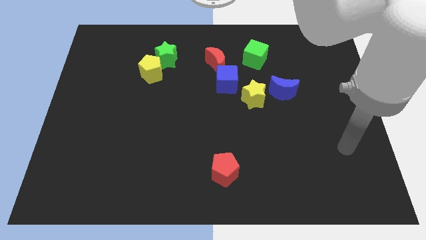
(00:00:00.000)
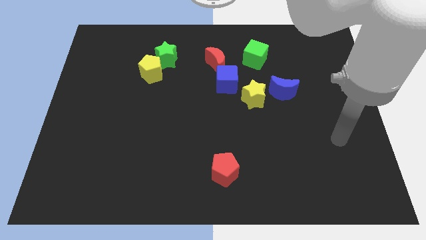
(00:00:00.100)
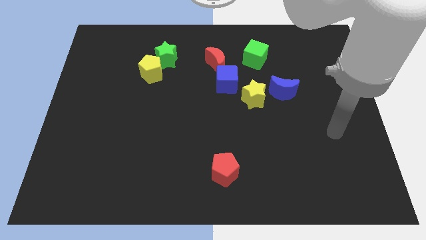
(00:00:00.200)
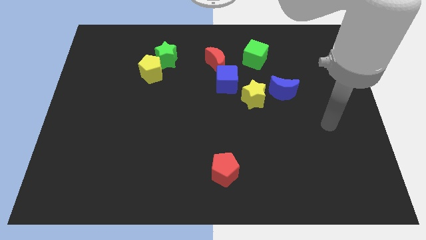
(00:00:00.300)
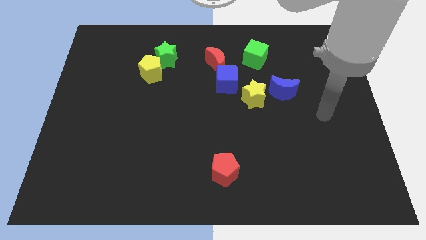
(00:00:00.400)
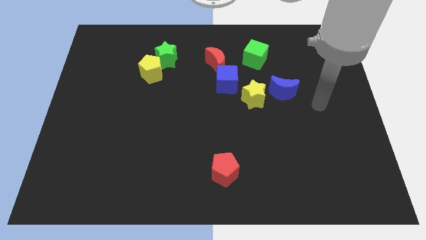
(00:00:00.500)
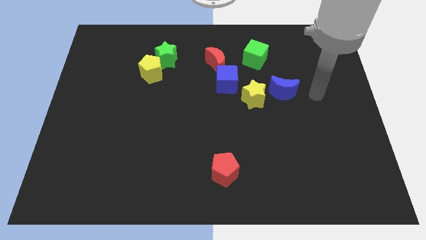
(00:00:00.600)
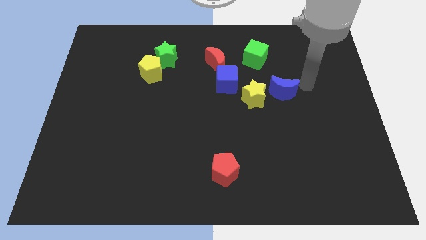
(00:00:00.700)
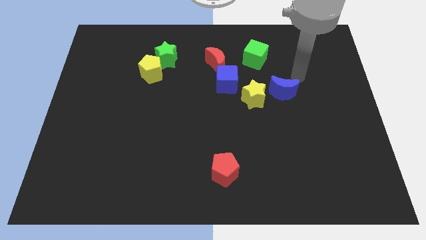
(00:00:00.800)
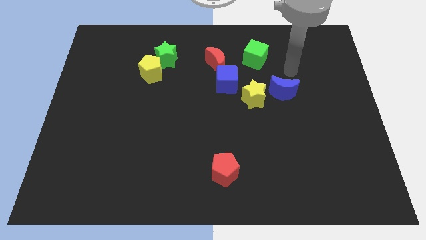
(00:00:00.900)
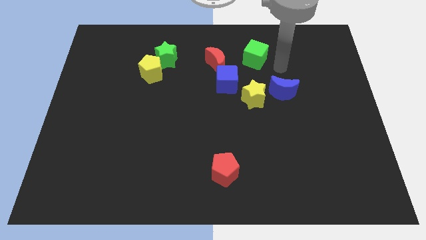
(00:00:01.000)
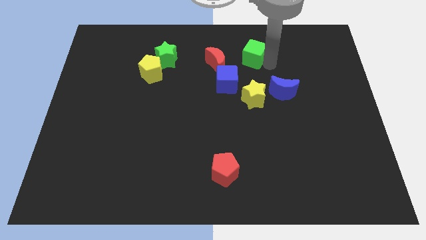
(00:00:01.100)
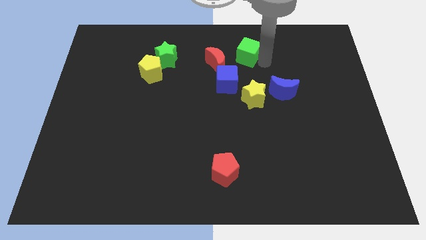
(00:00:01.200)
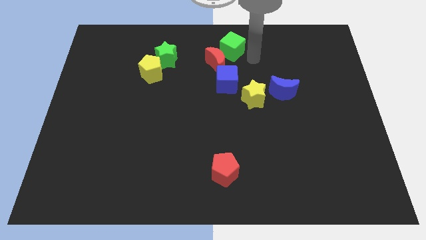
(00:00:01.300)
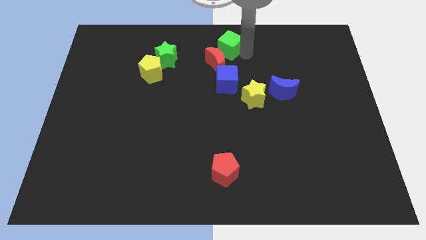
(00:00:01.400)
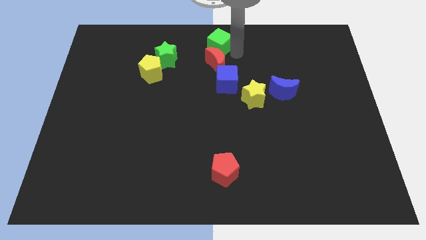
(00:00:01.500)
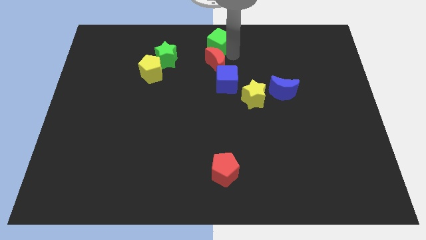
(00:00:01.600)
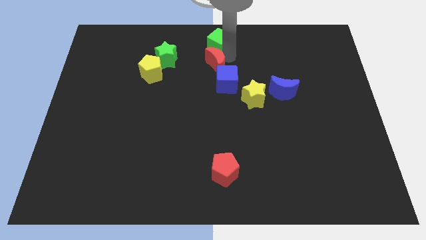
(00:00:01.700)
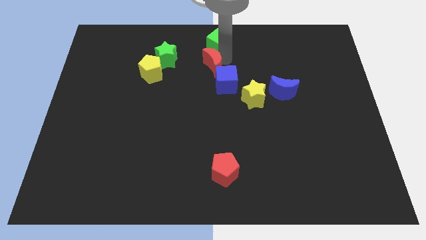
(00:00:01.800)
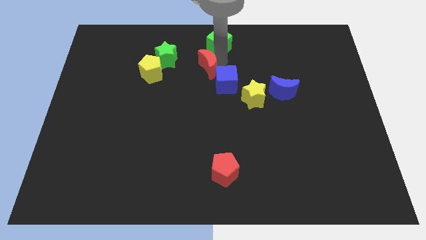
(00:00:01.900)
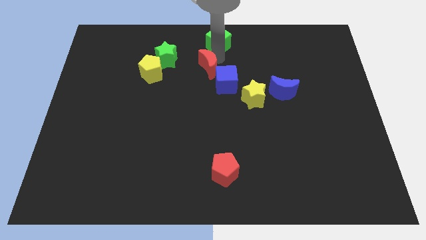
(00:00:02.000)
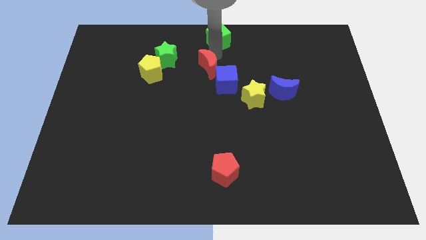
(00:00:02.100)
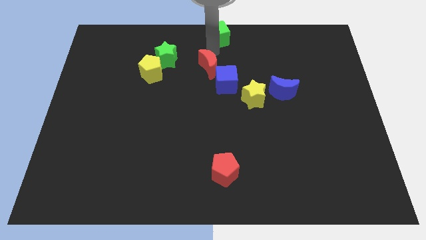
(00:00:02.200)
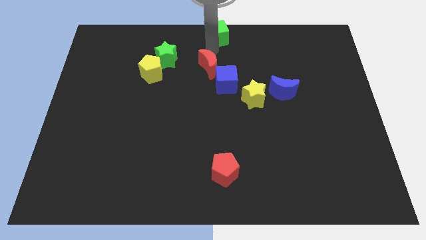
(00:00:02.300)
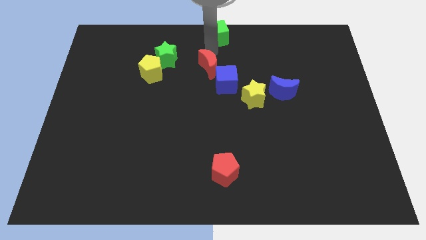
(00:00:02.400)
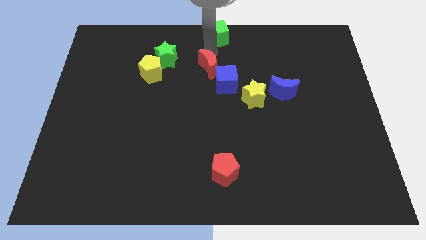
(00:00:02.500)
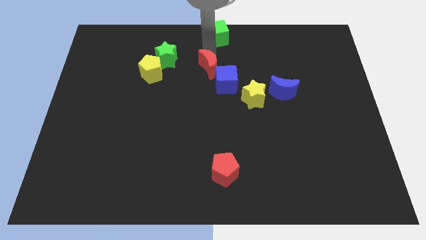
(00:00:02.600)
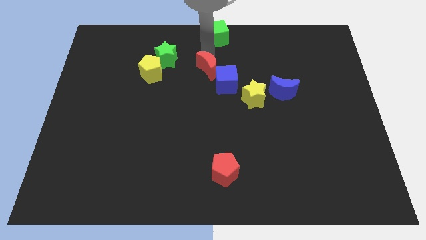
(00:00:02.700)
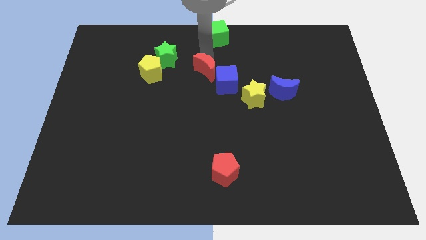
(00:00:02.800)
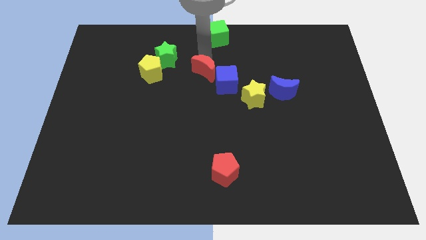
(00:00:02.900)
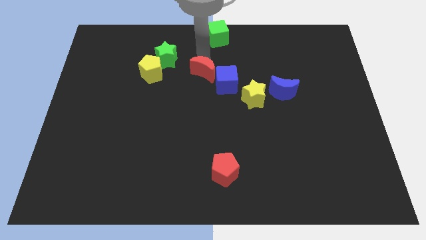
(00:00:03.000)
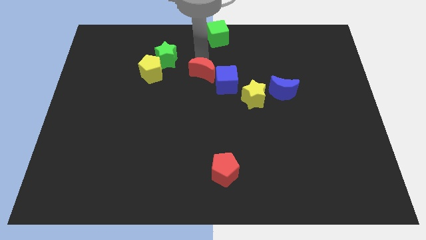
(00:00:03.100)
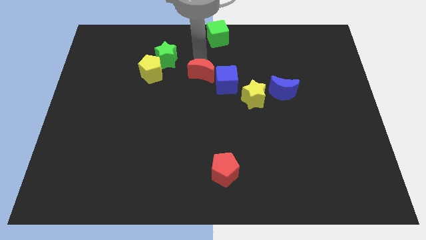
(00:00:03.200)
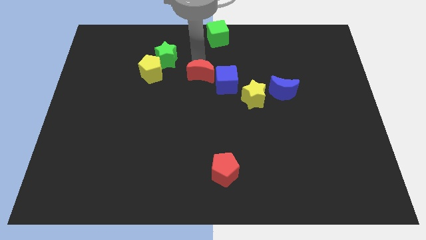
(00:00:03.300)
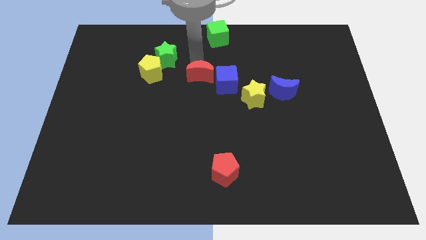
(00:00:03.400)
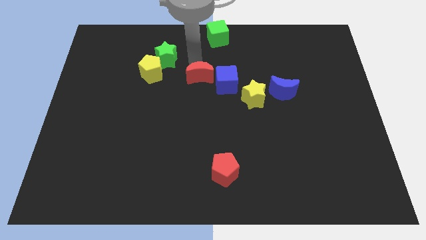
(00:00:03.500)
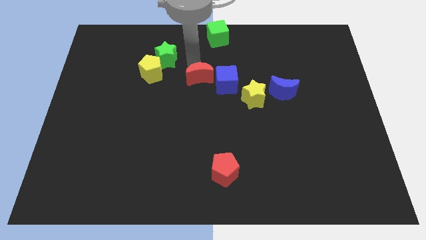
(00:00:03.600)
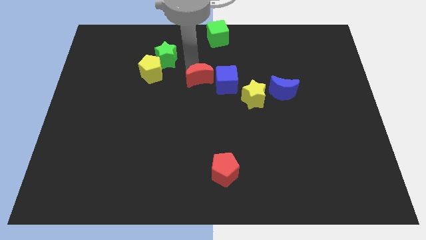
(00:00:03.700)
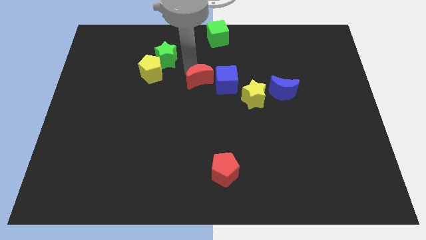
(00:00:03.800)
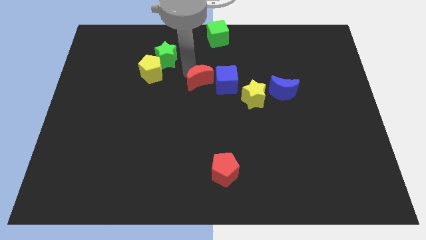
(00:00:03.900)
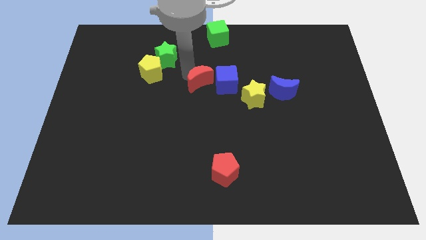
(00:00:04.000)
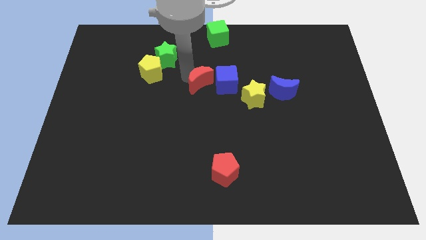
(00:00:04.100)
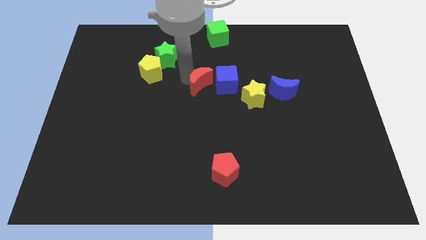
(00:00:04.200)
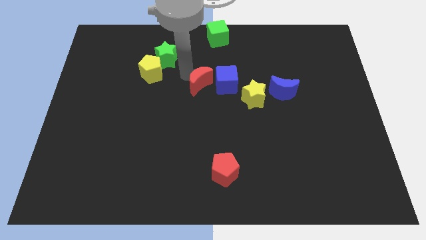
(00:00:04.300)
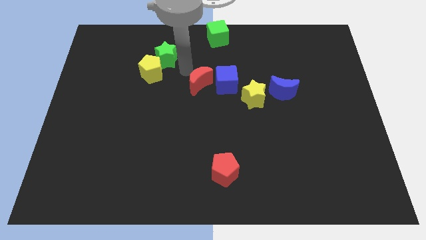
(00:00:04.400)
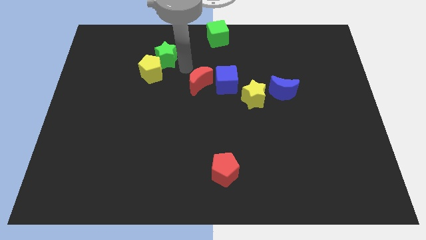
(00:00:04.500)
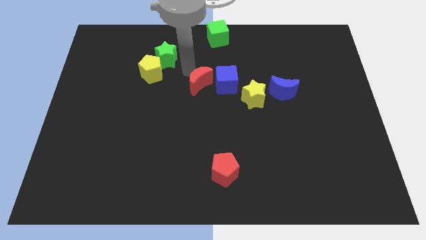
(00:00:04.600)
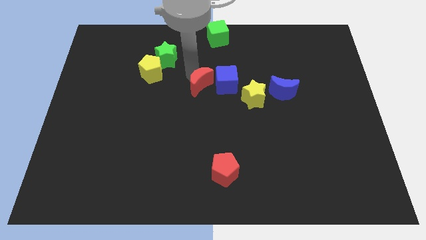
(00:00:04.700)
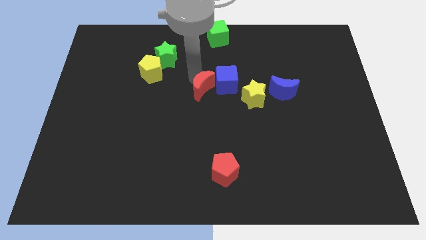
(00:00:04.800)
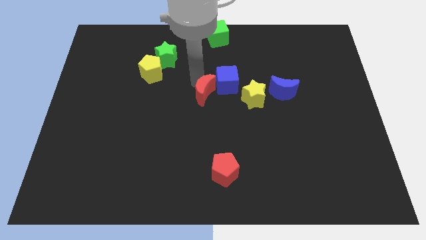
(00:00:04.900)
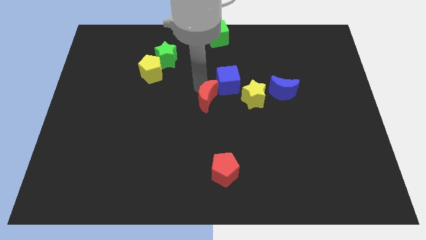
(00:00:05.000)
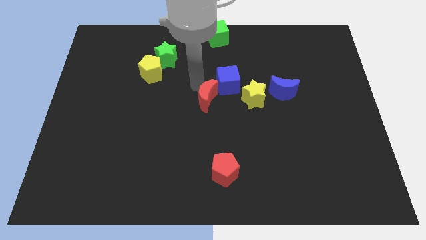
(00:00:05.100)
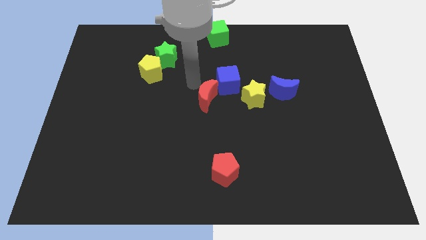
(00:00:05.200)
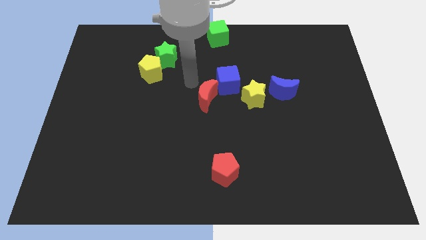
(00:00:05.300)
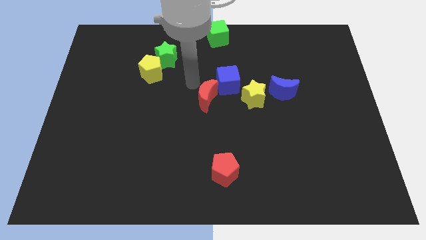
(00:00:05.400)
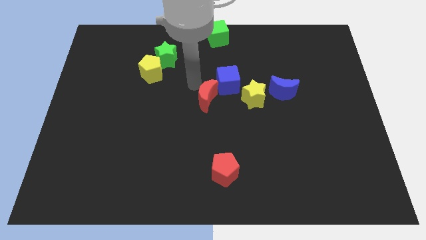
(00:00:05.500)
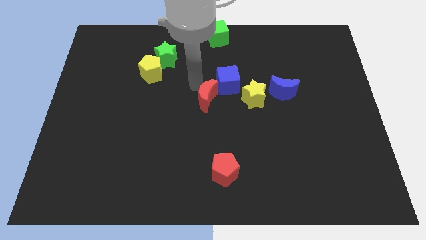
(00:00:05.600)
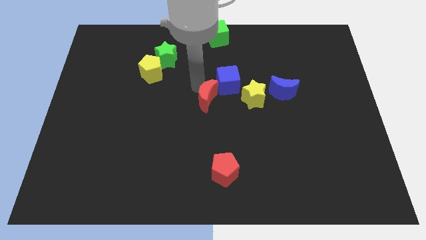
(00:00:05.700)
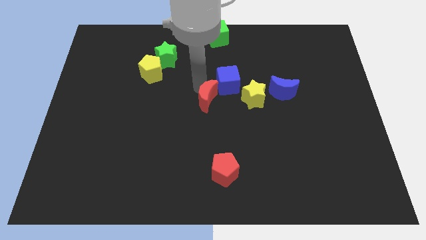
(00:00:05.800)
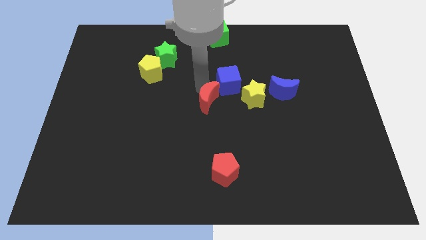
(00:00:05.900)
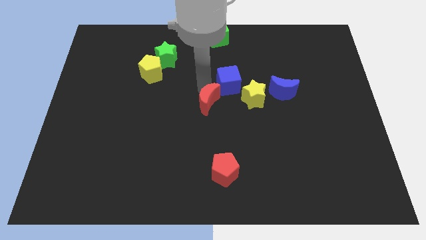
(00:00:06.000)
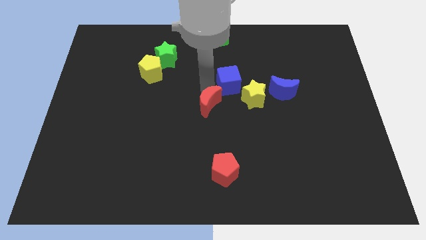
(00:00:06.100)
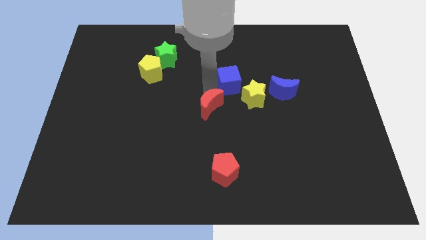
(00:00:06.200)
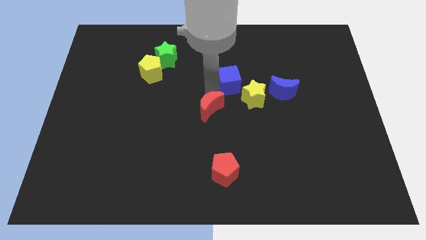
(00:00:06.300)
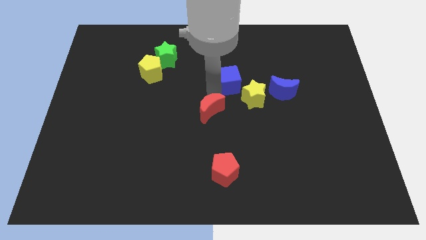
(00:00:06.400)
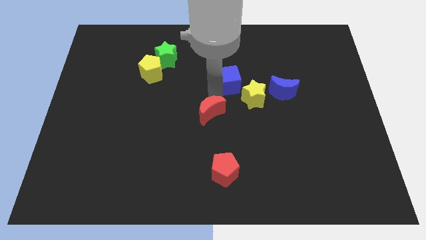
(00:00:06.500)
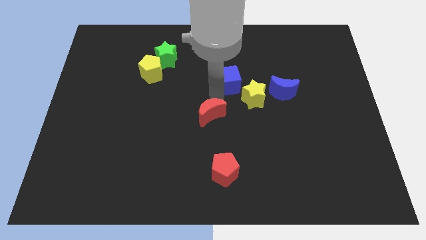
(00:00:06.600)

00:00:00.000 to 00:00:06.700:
move the red moon to the top side of the red pentagon

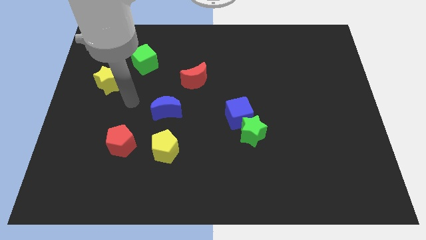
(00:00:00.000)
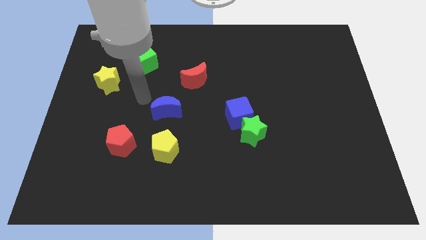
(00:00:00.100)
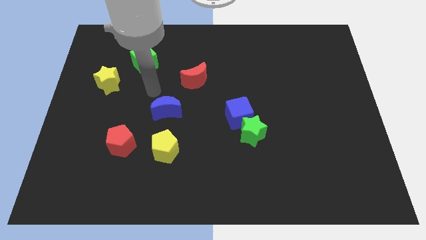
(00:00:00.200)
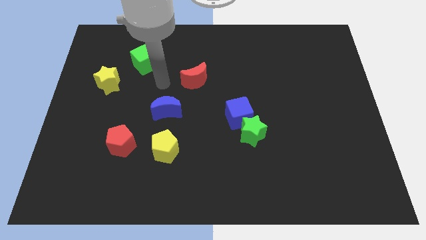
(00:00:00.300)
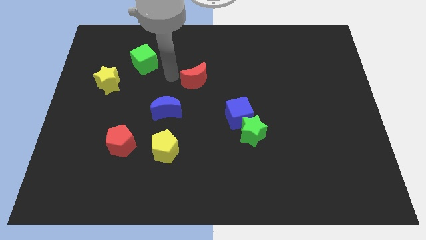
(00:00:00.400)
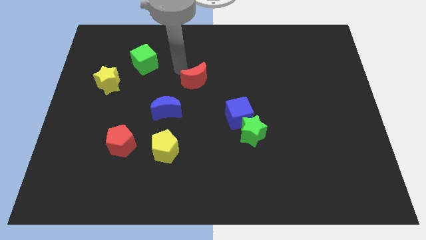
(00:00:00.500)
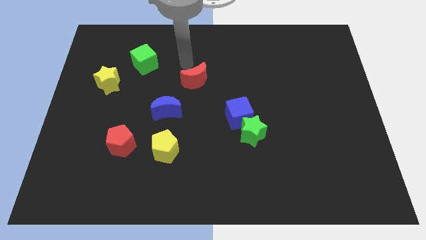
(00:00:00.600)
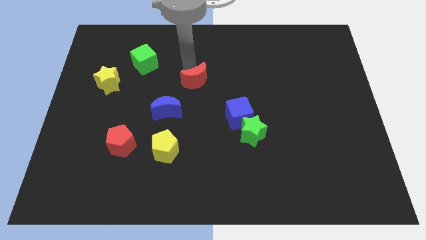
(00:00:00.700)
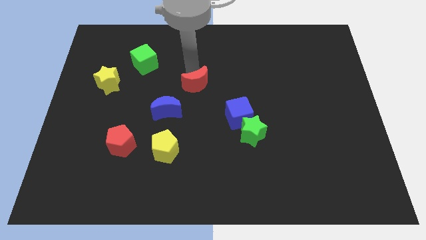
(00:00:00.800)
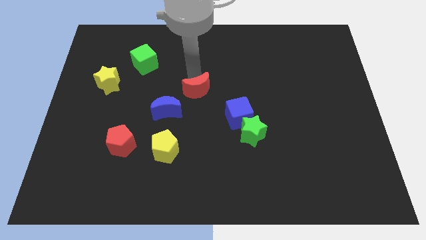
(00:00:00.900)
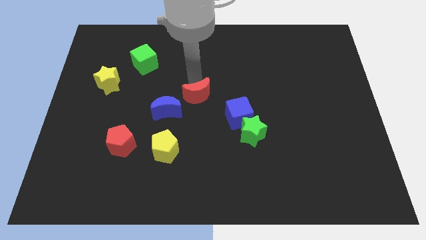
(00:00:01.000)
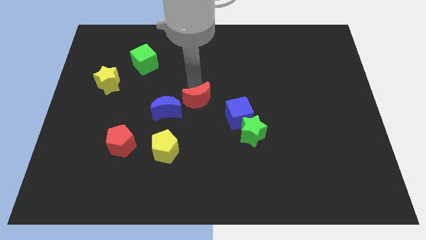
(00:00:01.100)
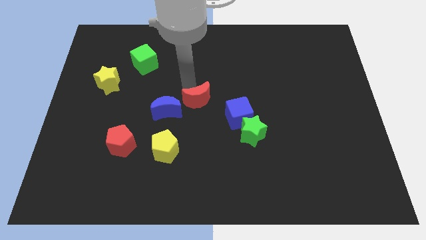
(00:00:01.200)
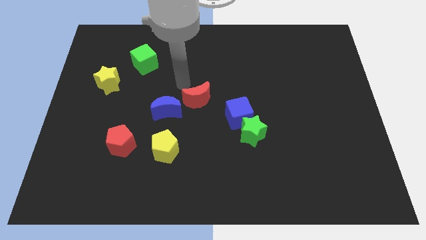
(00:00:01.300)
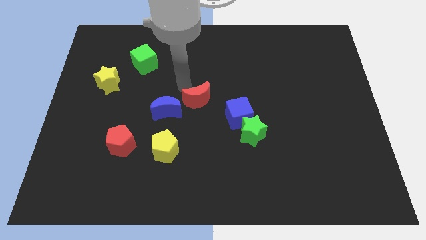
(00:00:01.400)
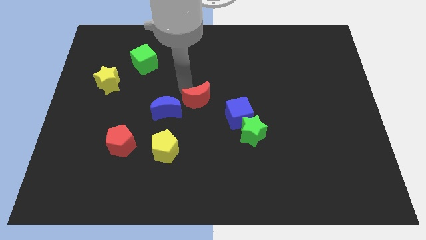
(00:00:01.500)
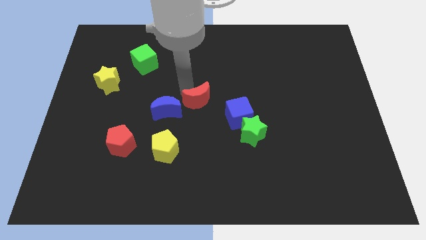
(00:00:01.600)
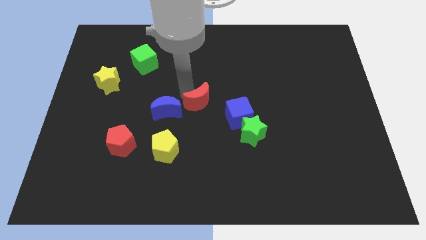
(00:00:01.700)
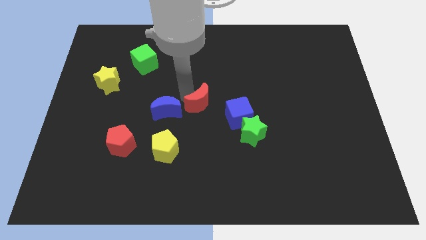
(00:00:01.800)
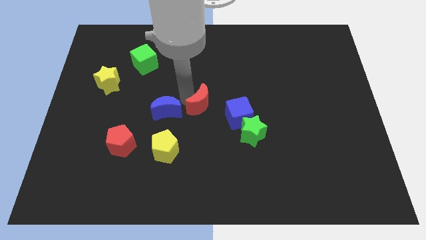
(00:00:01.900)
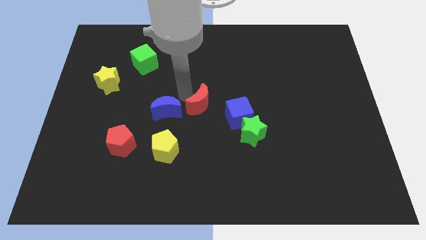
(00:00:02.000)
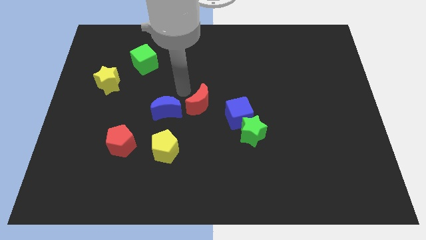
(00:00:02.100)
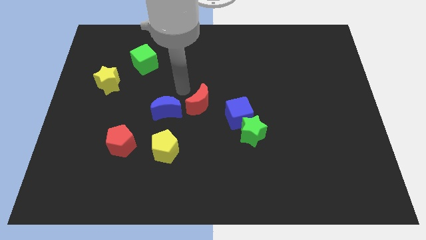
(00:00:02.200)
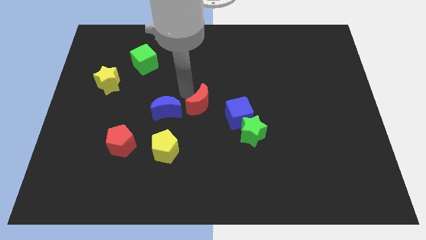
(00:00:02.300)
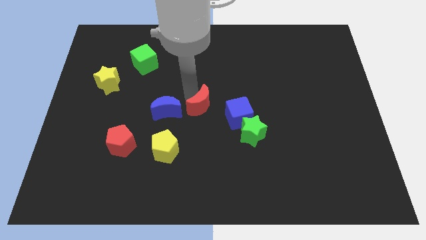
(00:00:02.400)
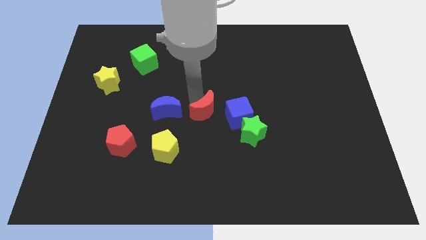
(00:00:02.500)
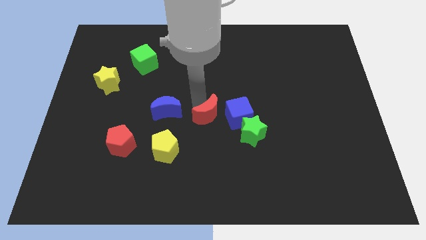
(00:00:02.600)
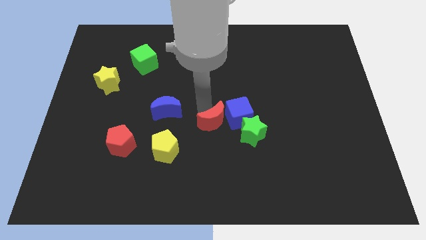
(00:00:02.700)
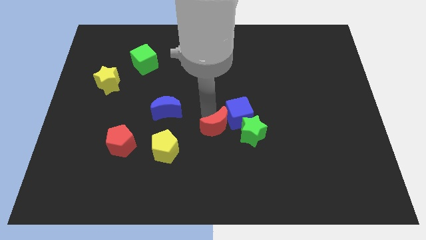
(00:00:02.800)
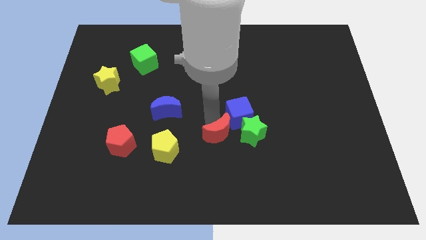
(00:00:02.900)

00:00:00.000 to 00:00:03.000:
move the red moon to the bottom side of the blue cube
